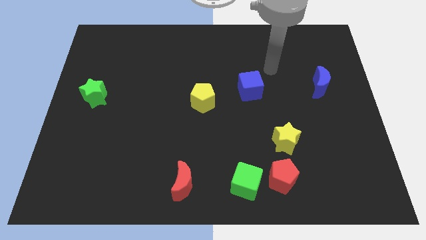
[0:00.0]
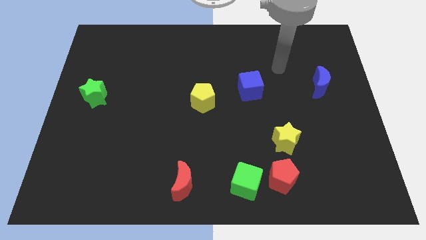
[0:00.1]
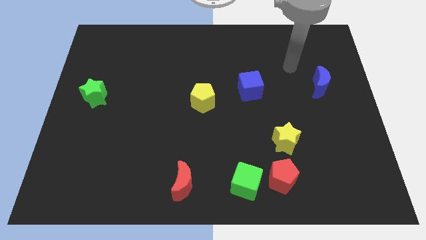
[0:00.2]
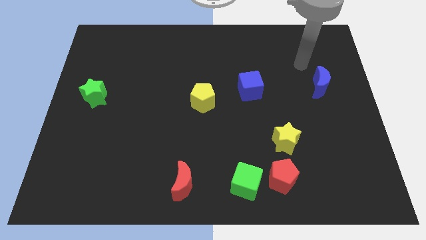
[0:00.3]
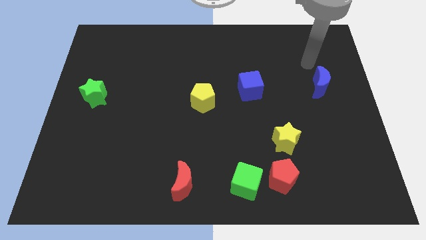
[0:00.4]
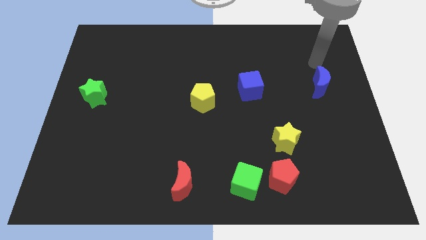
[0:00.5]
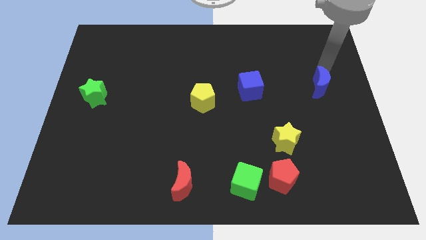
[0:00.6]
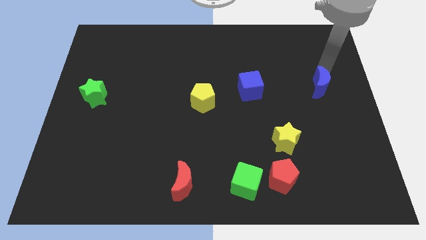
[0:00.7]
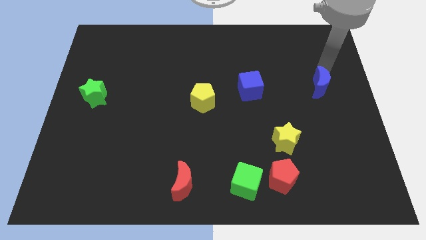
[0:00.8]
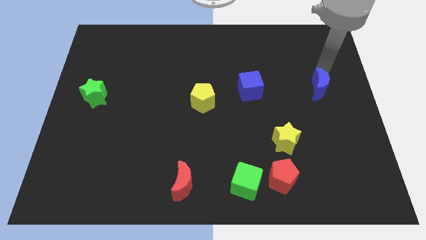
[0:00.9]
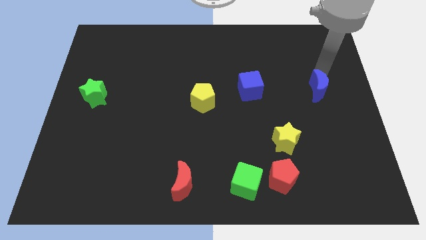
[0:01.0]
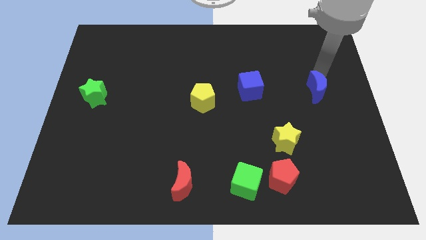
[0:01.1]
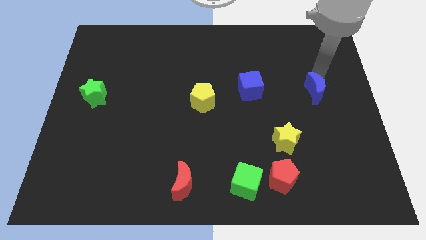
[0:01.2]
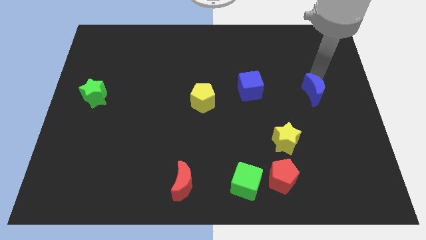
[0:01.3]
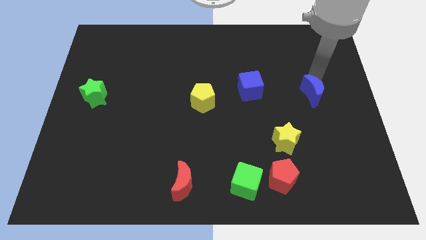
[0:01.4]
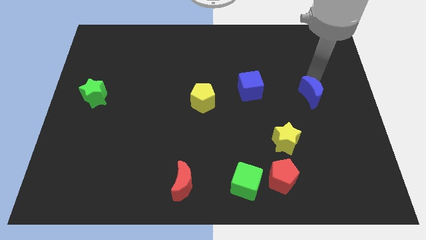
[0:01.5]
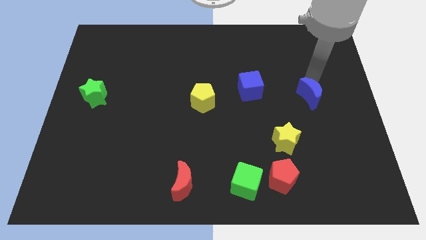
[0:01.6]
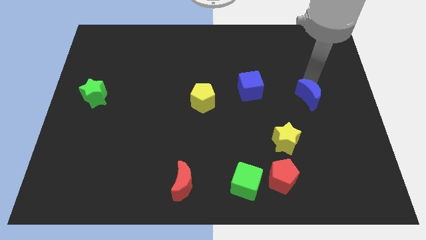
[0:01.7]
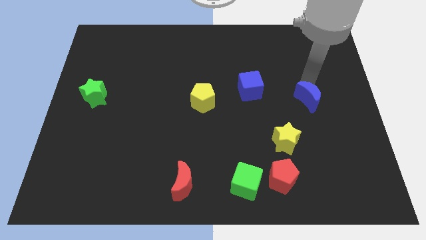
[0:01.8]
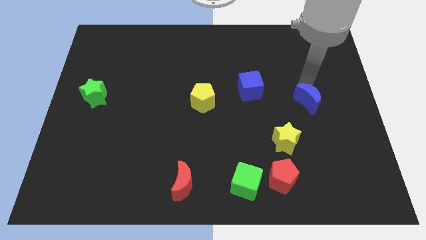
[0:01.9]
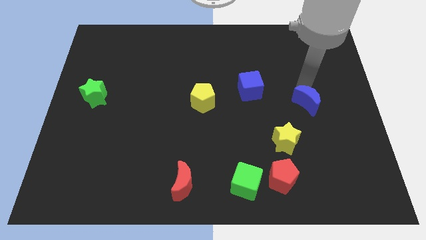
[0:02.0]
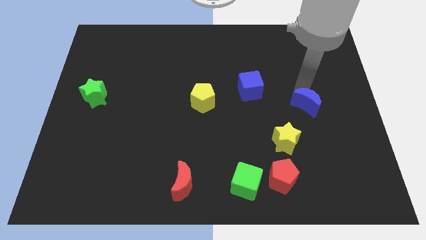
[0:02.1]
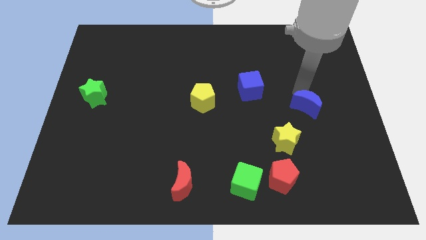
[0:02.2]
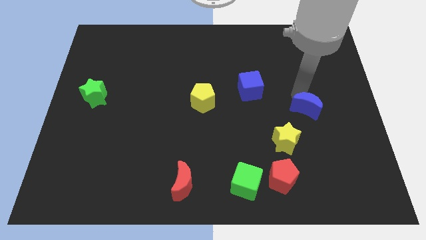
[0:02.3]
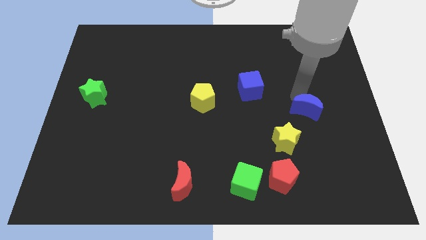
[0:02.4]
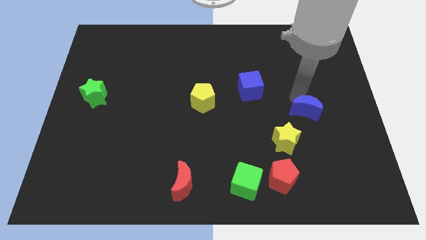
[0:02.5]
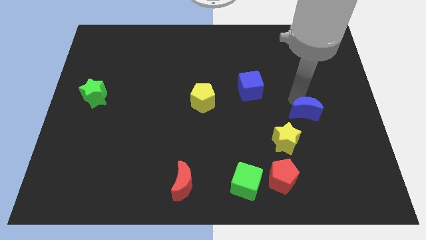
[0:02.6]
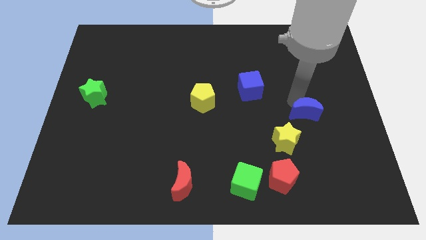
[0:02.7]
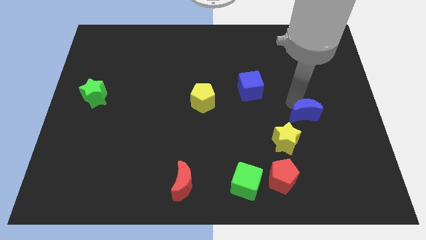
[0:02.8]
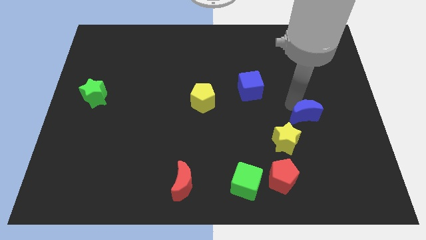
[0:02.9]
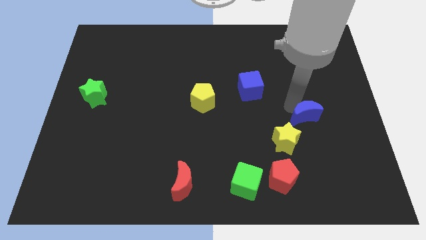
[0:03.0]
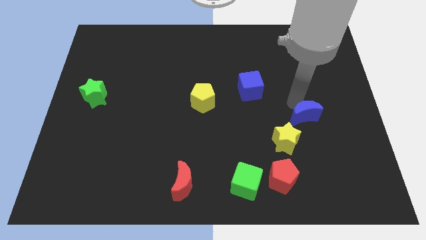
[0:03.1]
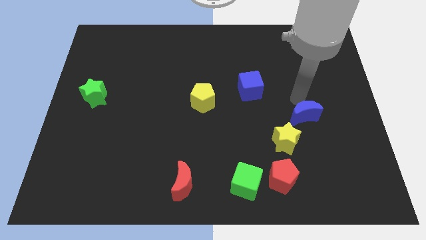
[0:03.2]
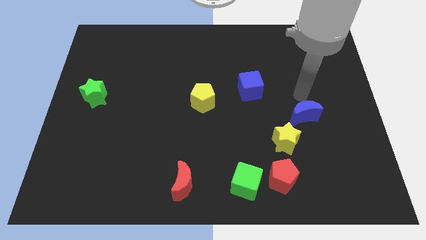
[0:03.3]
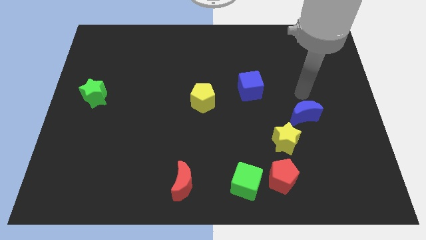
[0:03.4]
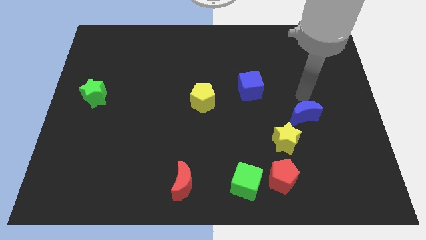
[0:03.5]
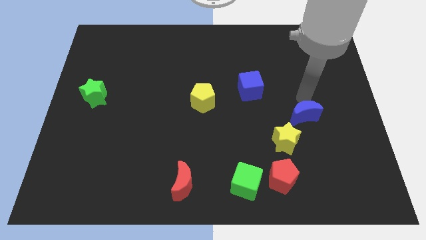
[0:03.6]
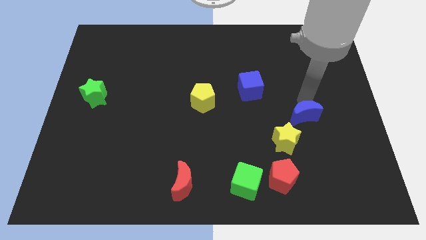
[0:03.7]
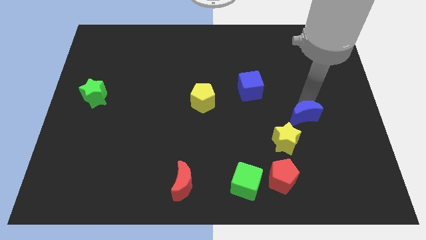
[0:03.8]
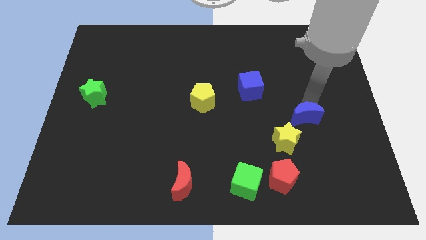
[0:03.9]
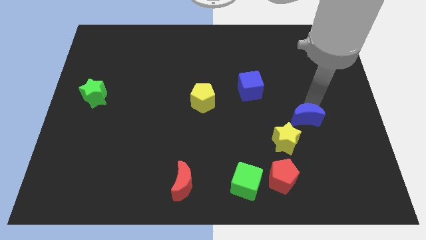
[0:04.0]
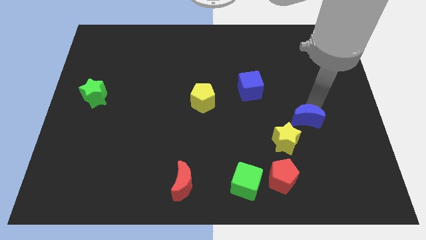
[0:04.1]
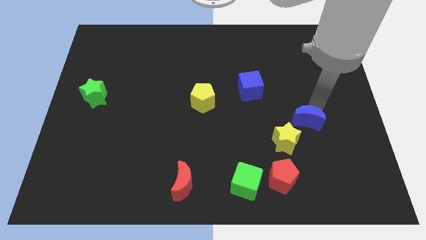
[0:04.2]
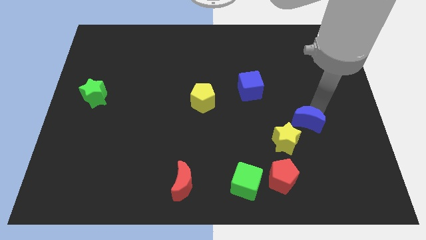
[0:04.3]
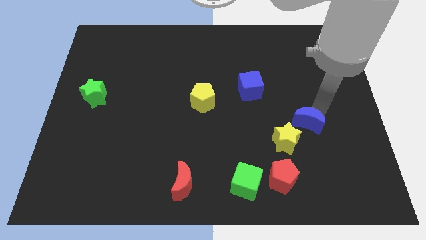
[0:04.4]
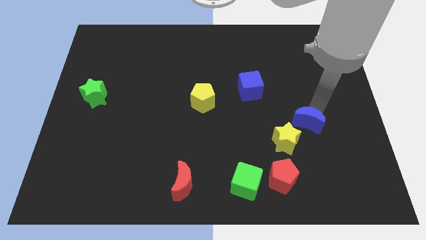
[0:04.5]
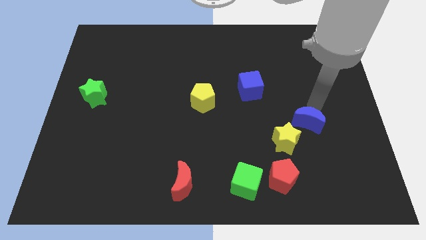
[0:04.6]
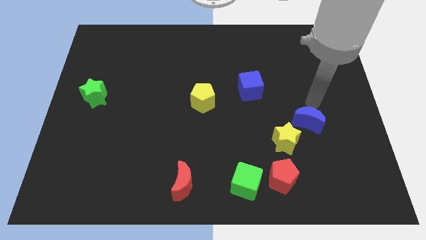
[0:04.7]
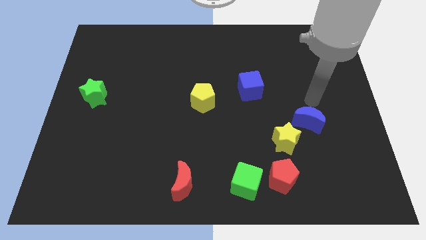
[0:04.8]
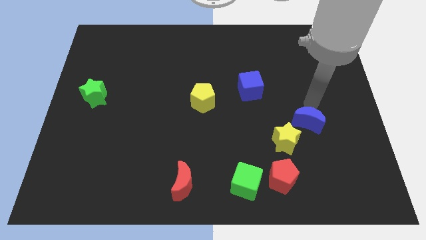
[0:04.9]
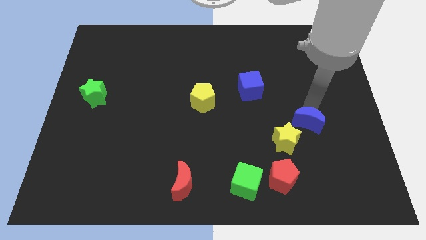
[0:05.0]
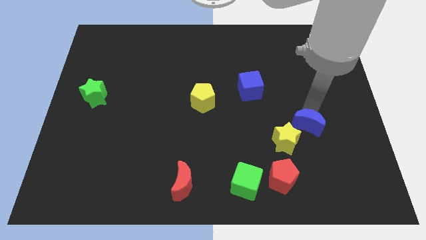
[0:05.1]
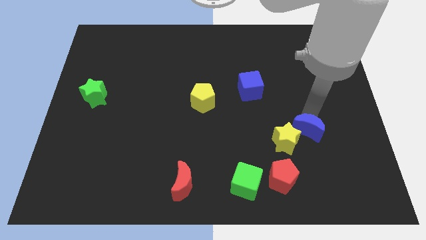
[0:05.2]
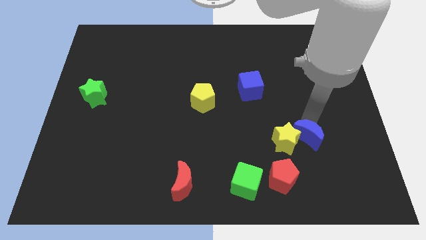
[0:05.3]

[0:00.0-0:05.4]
move the blue moon to the top right of the red pentagon

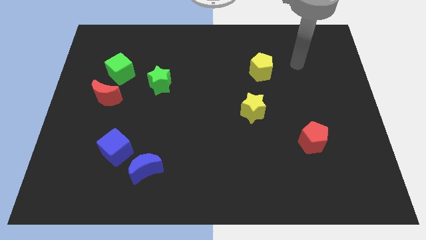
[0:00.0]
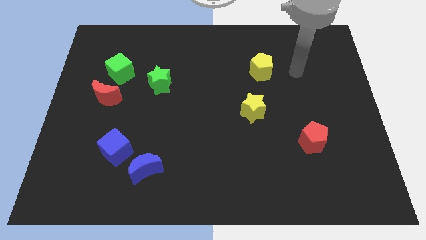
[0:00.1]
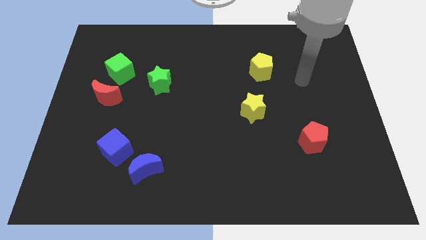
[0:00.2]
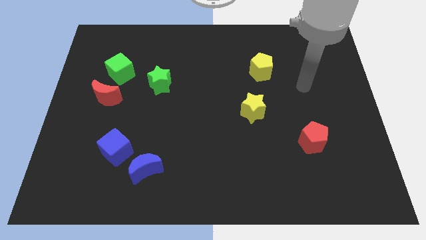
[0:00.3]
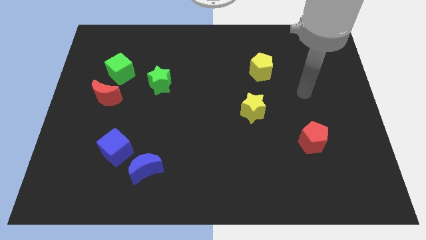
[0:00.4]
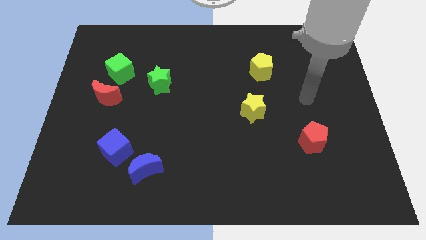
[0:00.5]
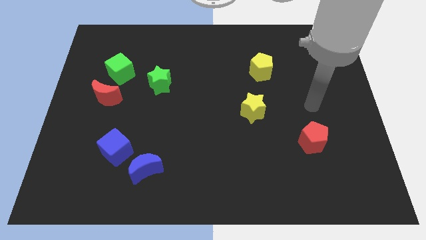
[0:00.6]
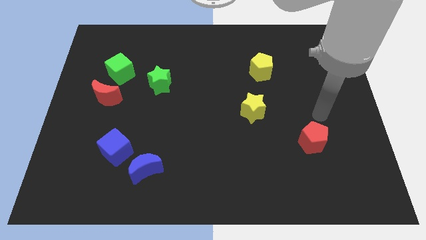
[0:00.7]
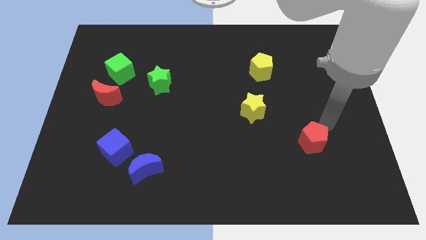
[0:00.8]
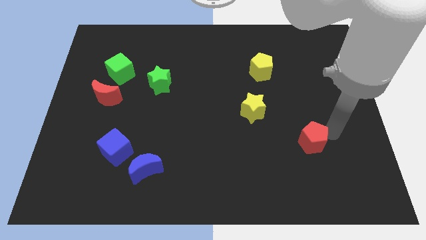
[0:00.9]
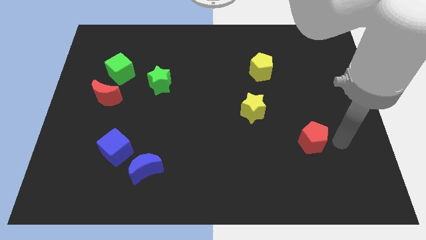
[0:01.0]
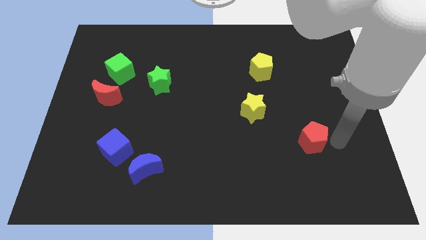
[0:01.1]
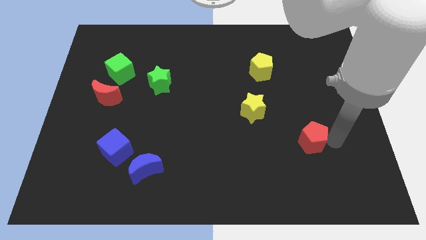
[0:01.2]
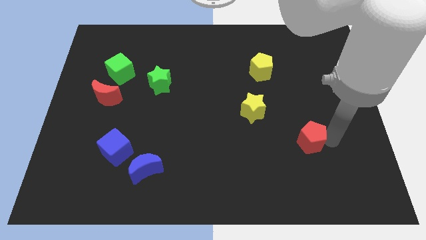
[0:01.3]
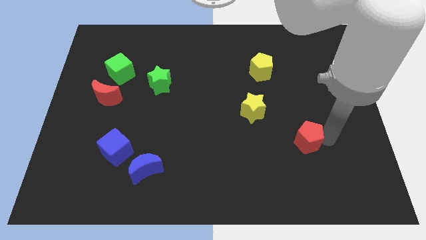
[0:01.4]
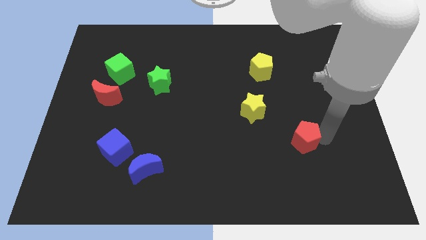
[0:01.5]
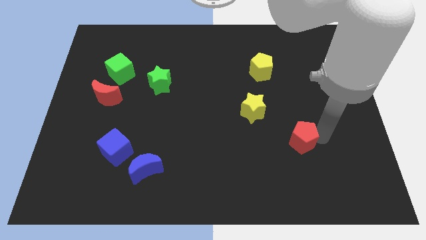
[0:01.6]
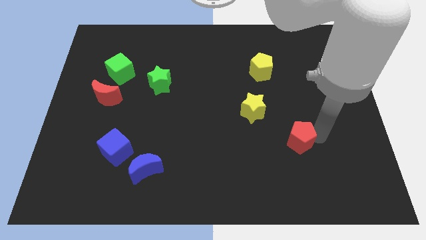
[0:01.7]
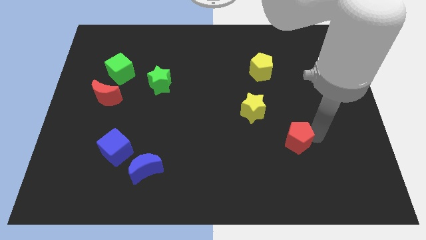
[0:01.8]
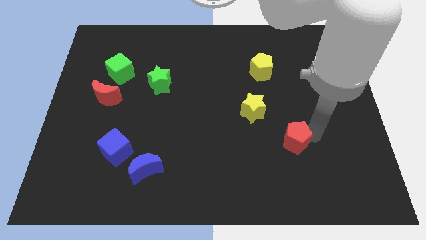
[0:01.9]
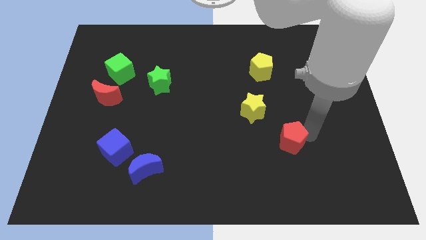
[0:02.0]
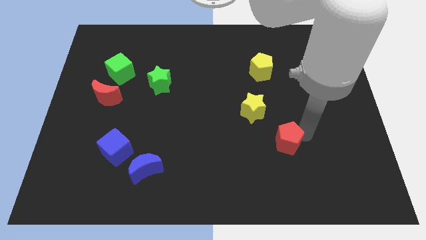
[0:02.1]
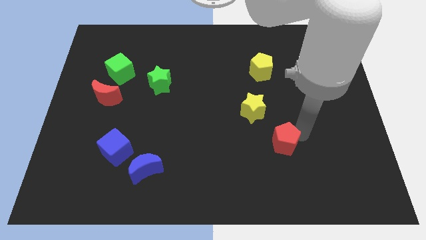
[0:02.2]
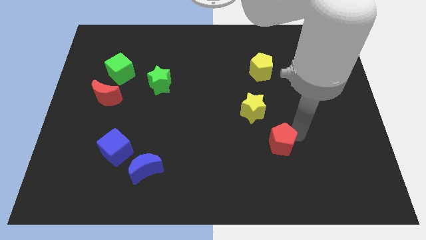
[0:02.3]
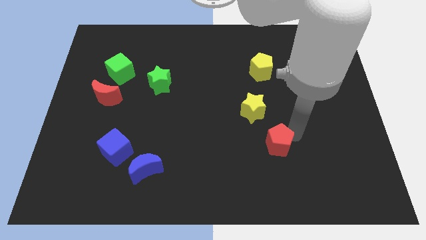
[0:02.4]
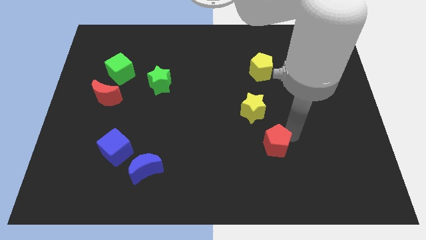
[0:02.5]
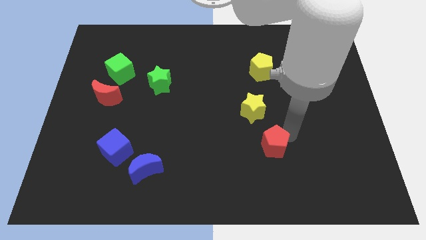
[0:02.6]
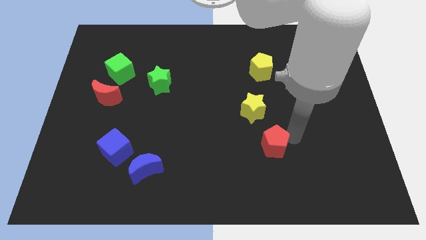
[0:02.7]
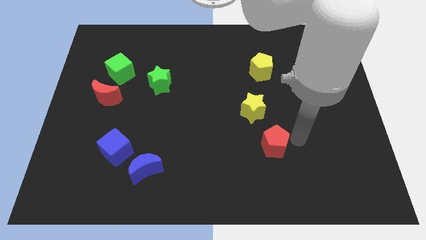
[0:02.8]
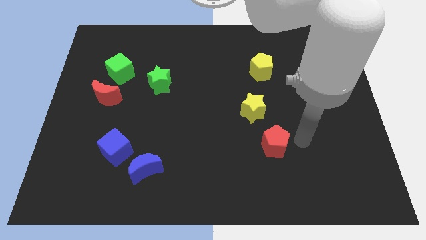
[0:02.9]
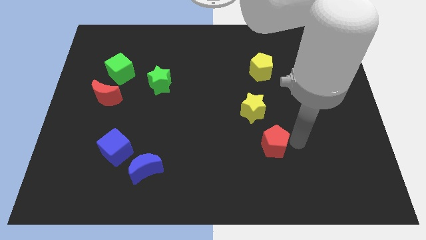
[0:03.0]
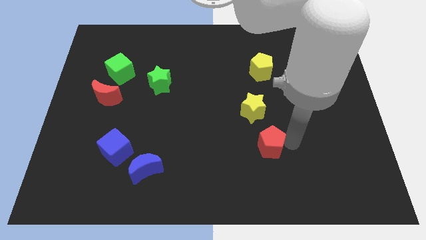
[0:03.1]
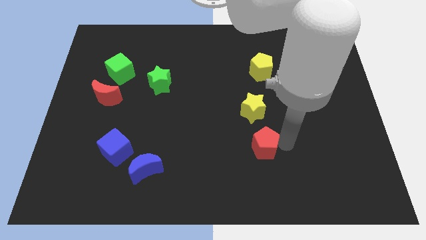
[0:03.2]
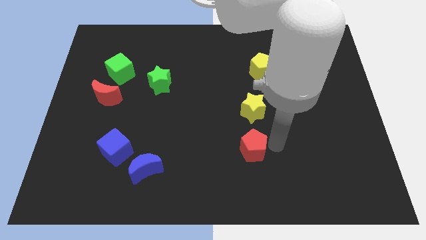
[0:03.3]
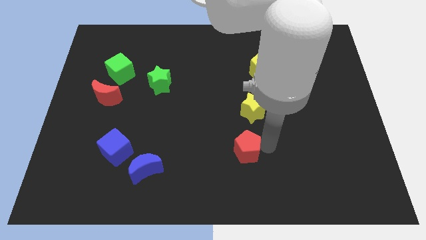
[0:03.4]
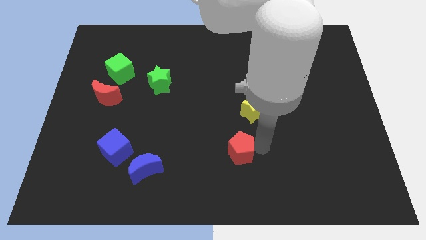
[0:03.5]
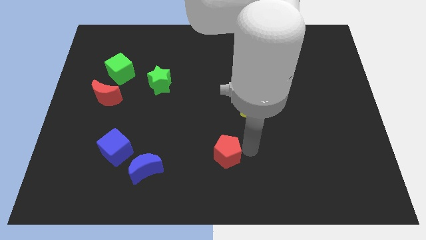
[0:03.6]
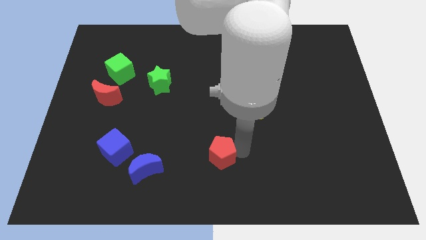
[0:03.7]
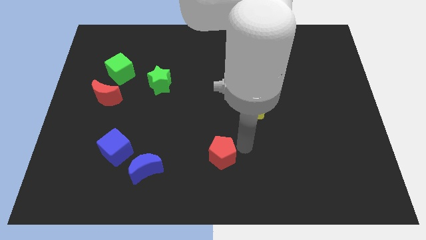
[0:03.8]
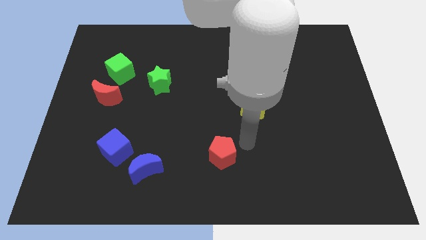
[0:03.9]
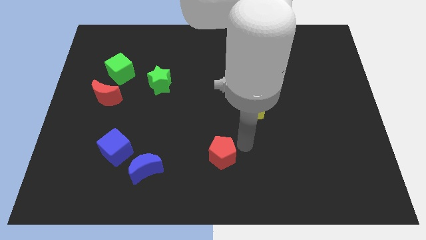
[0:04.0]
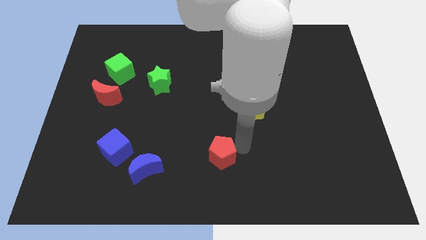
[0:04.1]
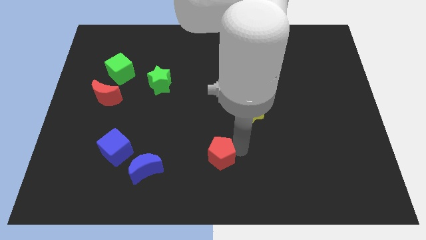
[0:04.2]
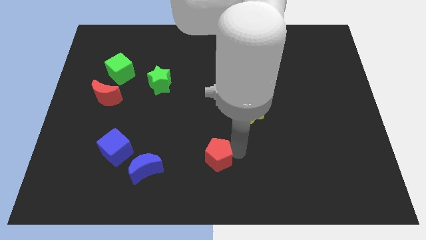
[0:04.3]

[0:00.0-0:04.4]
put the red pentagon right of the blue moon
